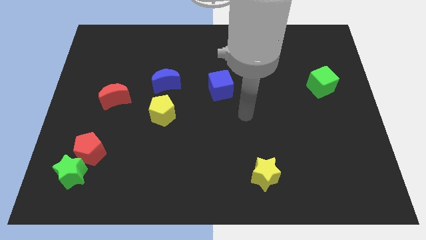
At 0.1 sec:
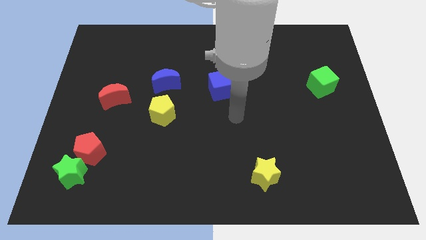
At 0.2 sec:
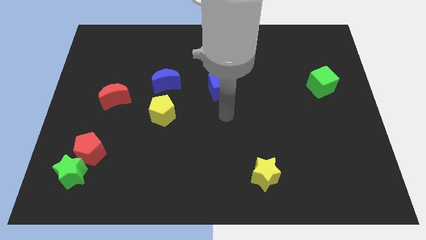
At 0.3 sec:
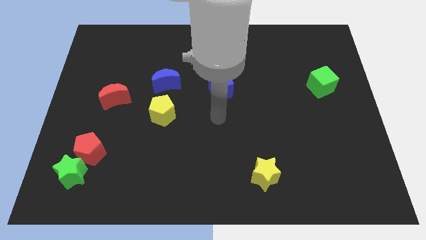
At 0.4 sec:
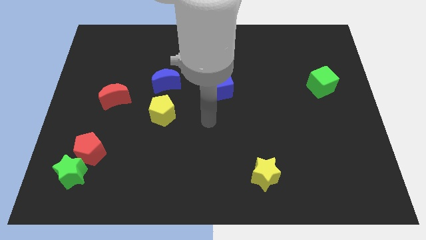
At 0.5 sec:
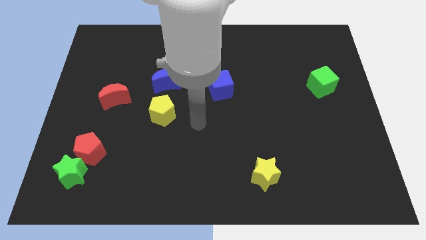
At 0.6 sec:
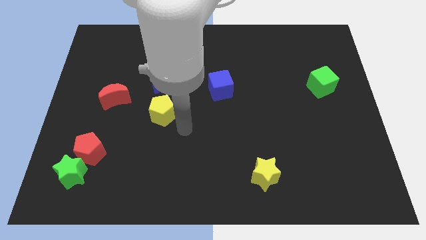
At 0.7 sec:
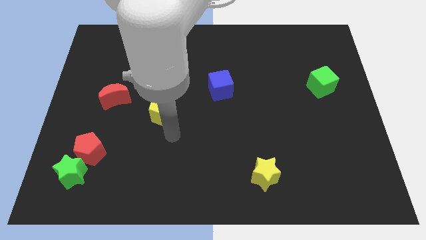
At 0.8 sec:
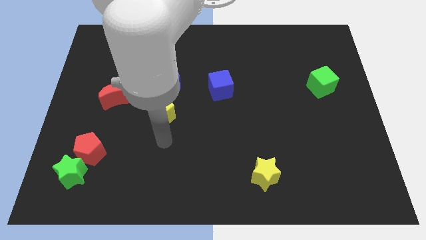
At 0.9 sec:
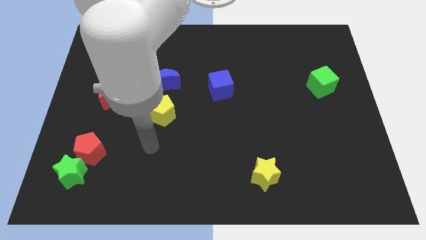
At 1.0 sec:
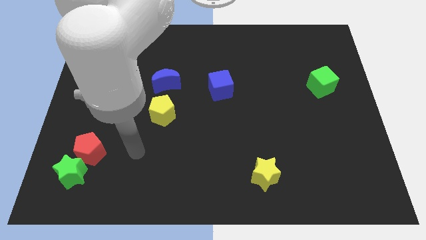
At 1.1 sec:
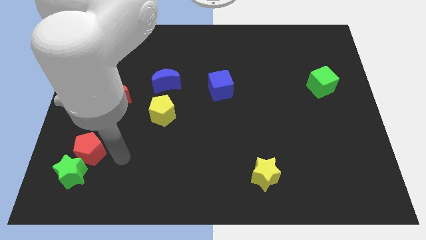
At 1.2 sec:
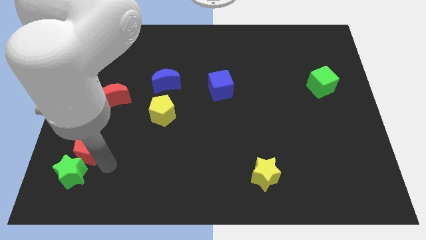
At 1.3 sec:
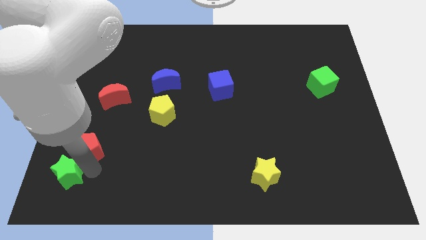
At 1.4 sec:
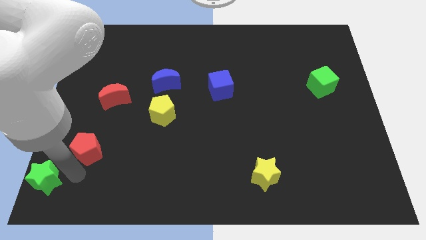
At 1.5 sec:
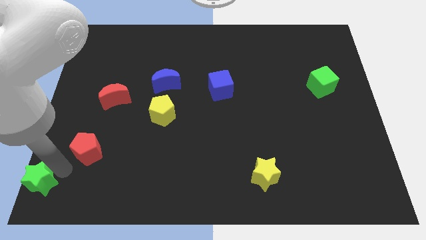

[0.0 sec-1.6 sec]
separate the red pentagon from the green star

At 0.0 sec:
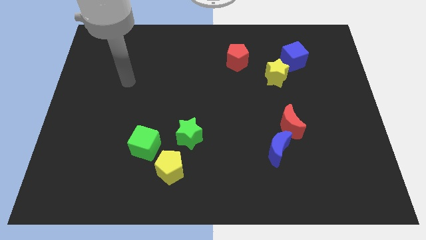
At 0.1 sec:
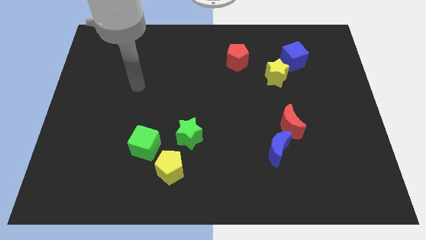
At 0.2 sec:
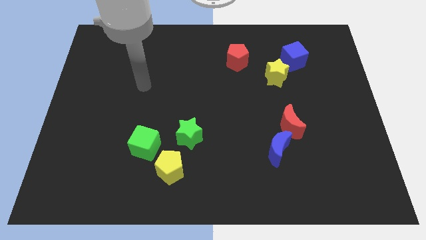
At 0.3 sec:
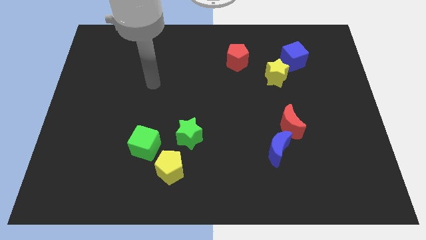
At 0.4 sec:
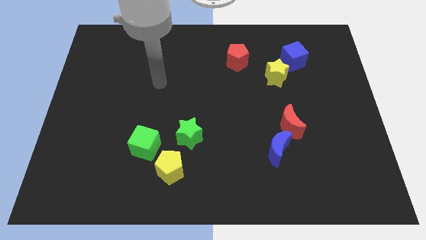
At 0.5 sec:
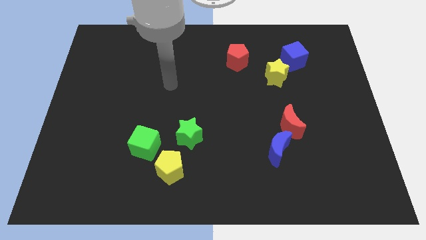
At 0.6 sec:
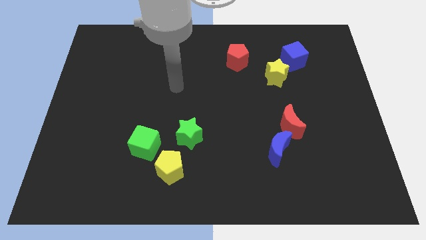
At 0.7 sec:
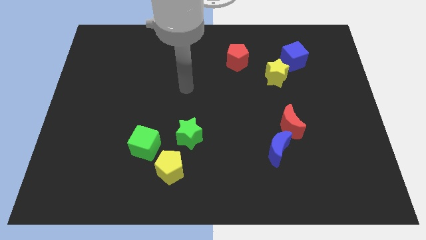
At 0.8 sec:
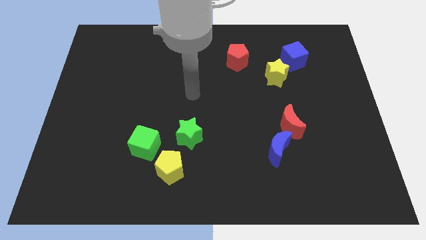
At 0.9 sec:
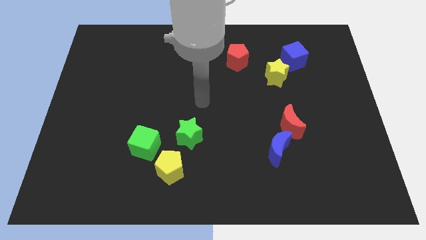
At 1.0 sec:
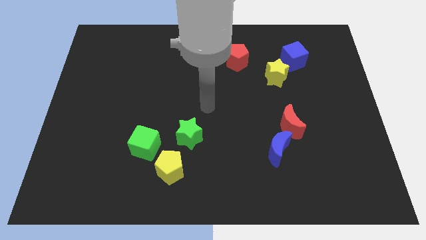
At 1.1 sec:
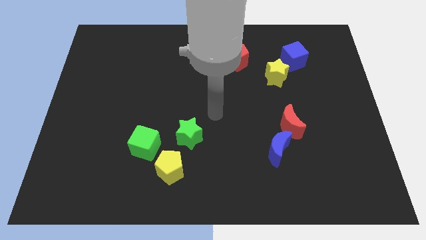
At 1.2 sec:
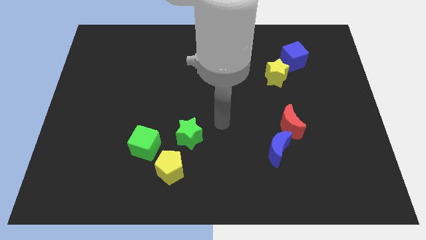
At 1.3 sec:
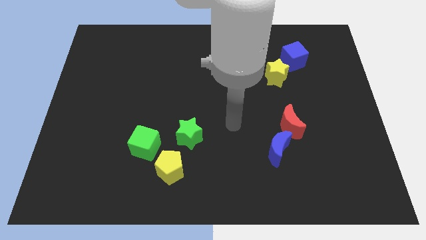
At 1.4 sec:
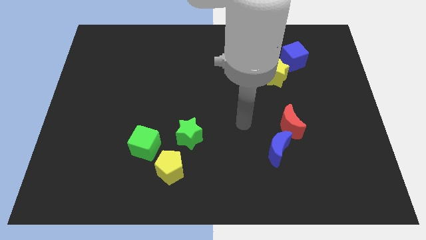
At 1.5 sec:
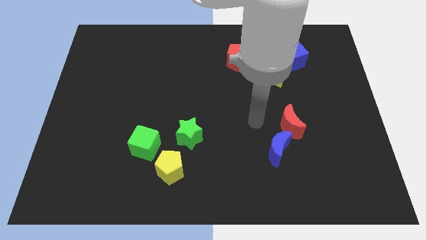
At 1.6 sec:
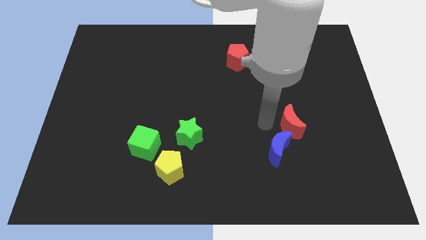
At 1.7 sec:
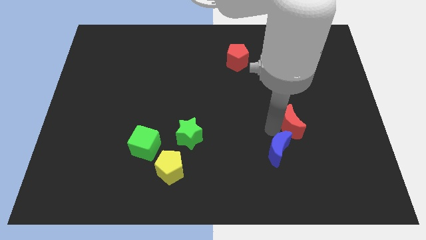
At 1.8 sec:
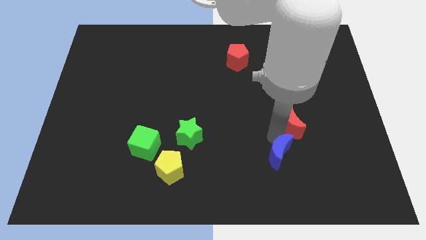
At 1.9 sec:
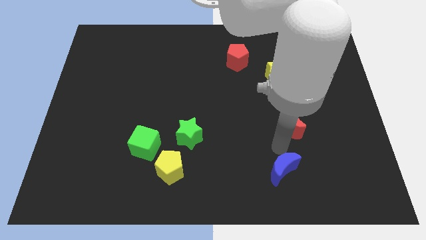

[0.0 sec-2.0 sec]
move the red moon away from the blue moon

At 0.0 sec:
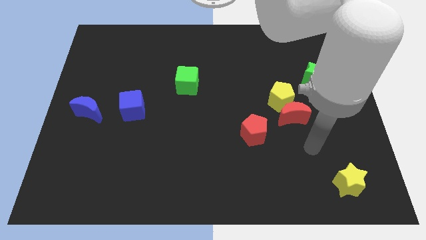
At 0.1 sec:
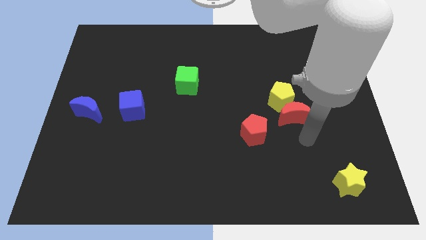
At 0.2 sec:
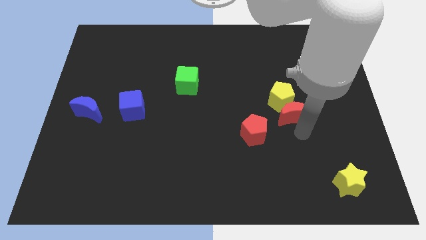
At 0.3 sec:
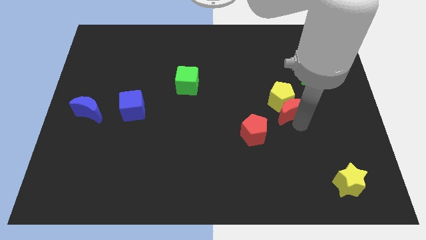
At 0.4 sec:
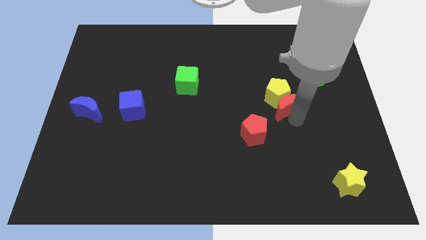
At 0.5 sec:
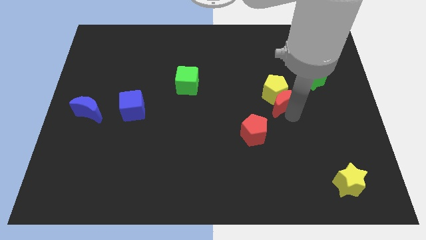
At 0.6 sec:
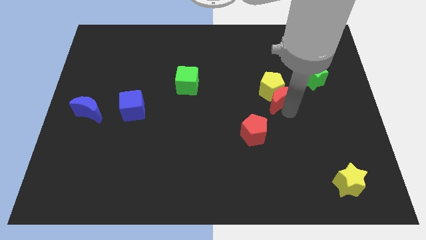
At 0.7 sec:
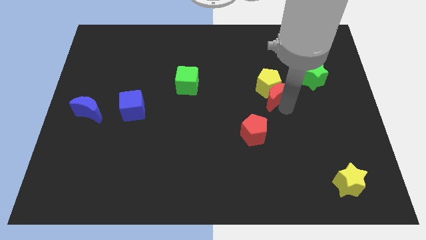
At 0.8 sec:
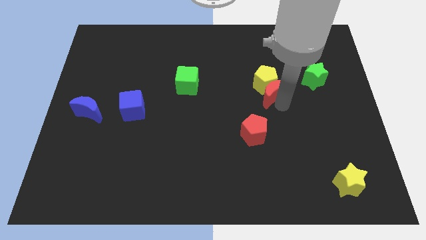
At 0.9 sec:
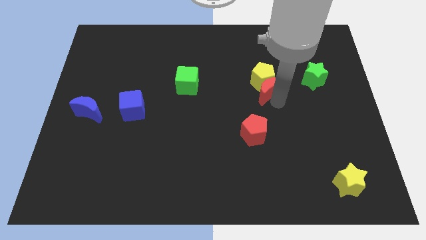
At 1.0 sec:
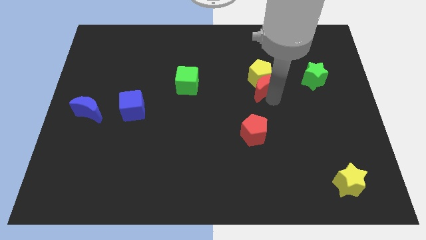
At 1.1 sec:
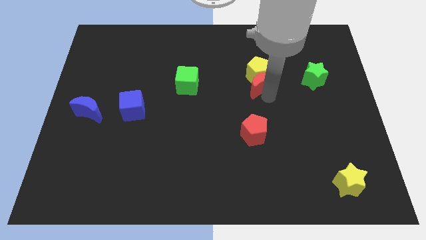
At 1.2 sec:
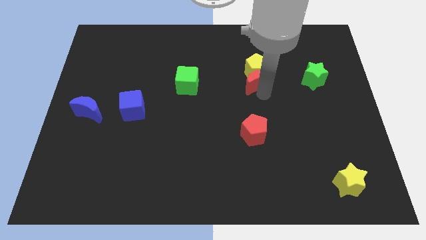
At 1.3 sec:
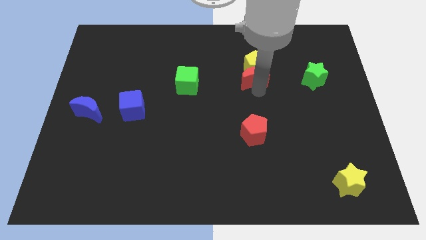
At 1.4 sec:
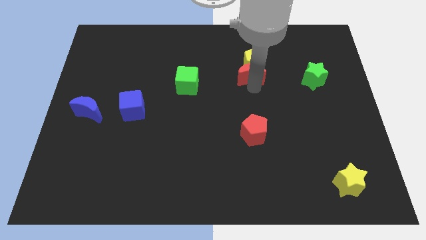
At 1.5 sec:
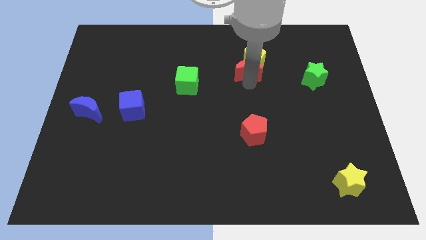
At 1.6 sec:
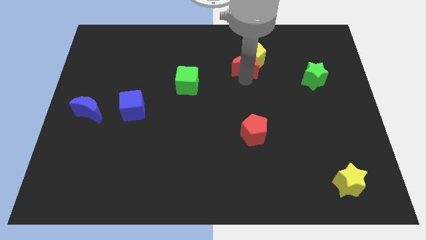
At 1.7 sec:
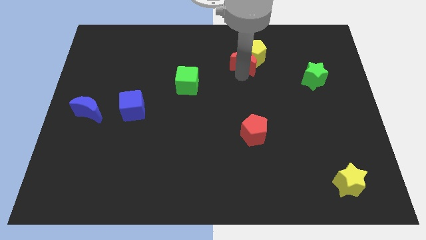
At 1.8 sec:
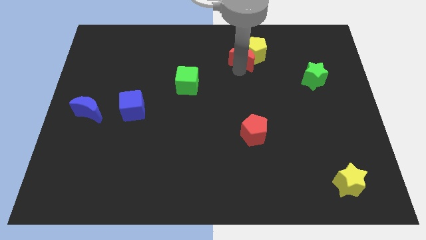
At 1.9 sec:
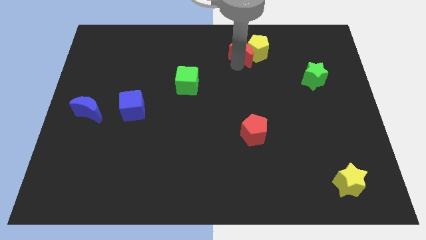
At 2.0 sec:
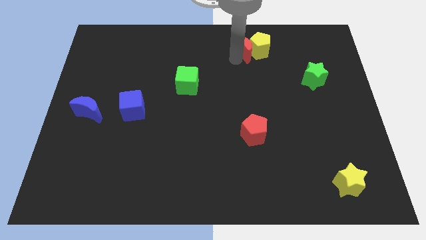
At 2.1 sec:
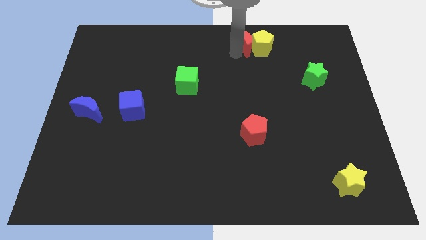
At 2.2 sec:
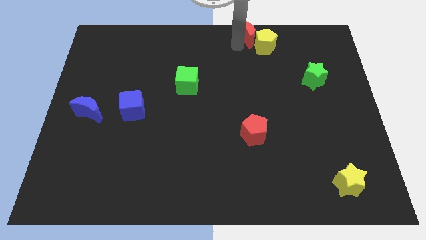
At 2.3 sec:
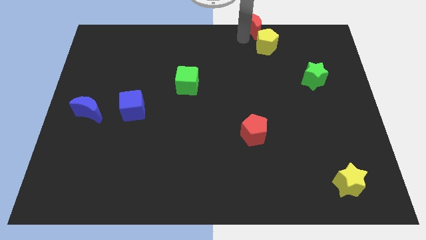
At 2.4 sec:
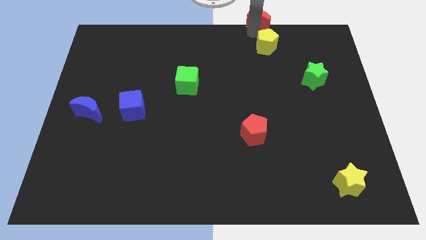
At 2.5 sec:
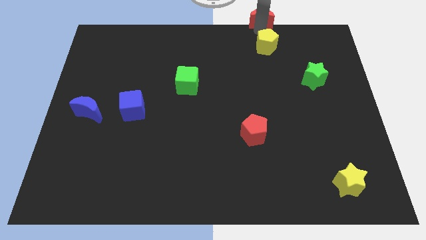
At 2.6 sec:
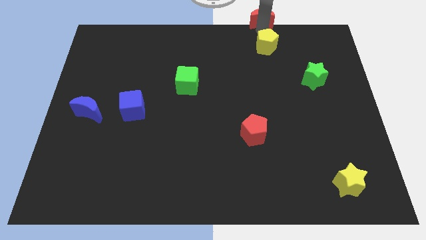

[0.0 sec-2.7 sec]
move the yellow pentagon away from the red moon

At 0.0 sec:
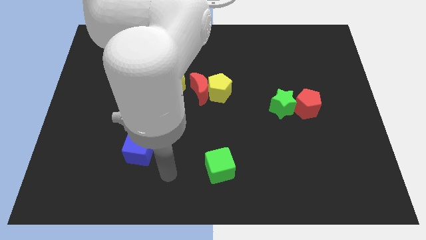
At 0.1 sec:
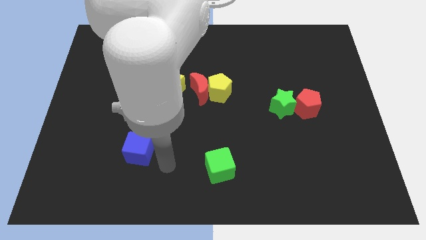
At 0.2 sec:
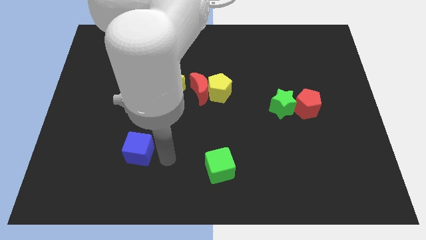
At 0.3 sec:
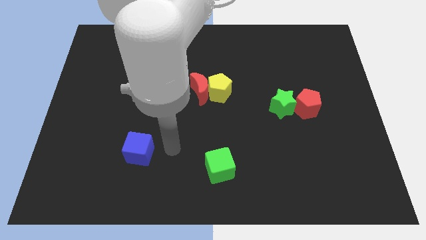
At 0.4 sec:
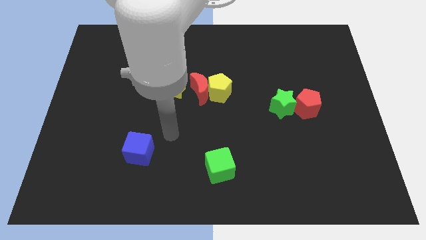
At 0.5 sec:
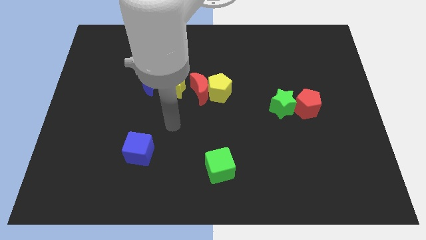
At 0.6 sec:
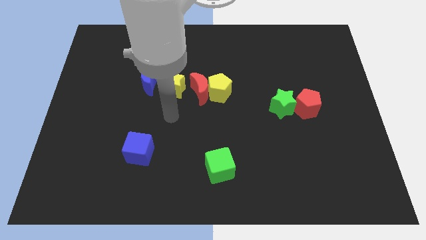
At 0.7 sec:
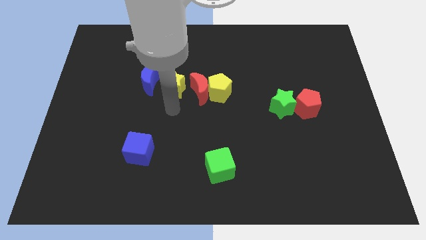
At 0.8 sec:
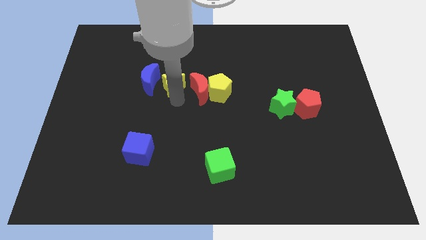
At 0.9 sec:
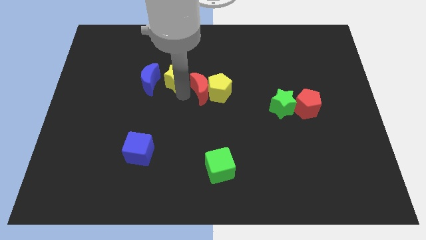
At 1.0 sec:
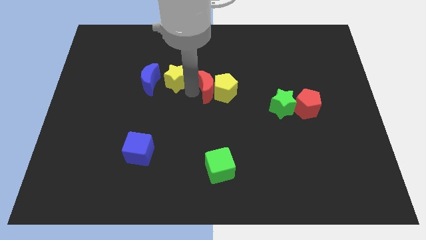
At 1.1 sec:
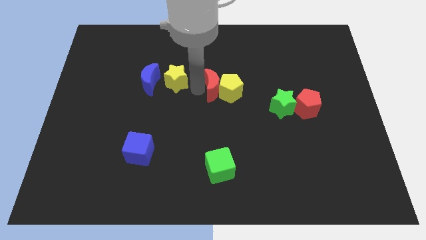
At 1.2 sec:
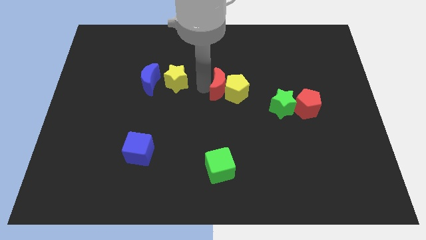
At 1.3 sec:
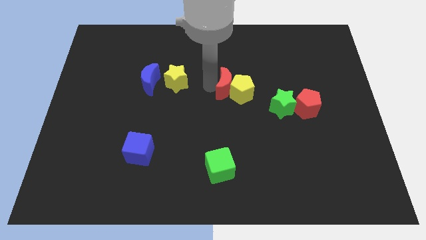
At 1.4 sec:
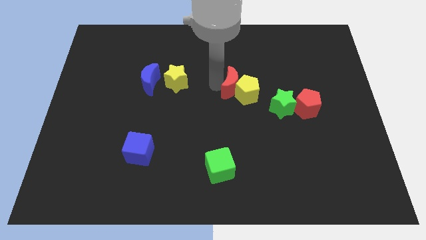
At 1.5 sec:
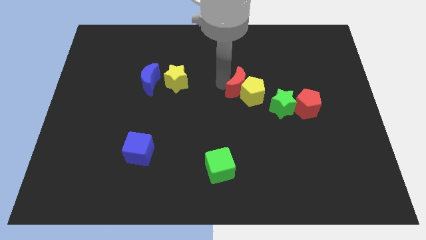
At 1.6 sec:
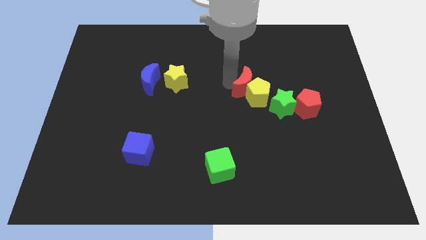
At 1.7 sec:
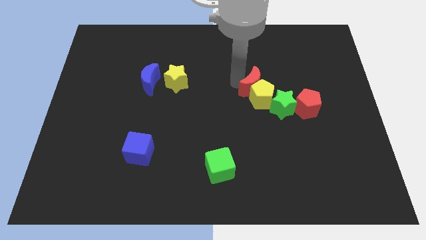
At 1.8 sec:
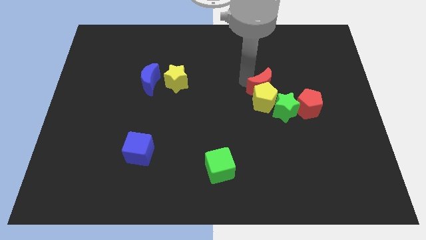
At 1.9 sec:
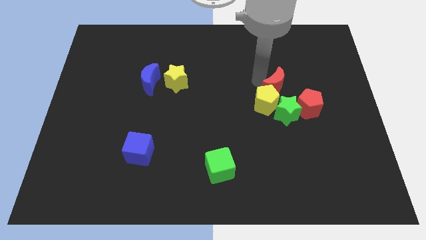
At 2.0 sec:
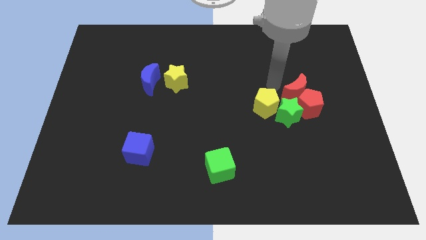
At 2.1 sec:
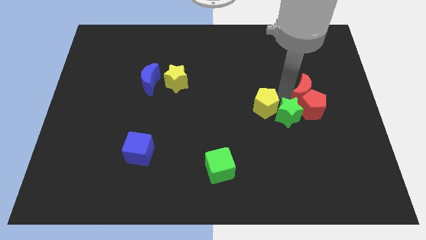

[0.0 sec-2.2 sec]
separate the yellow pentagon from the red moon

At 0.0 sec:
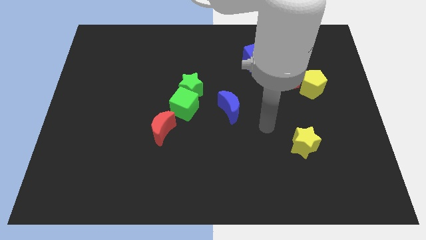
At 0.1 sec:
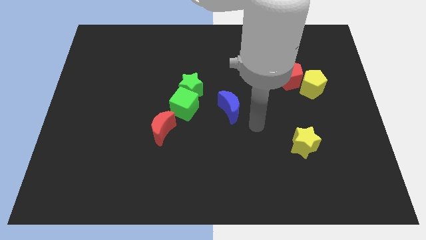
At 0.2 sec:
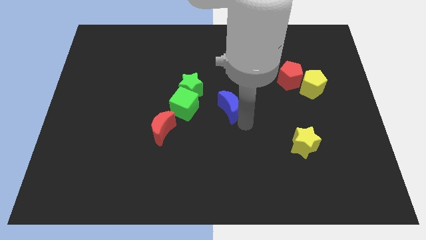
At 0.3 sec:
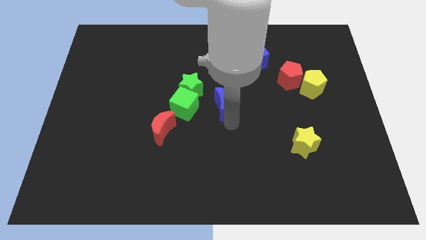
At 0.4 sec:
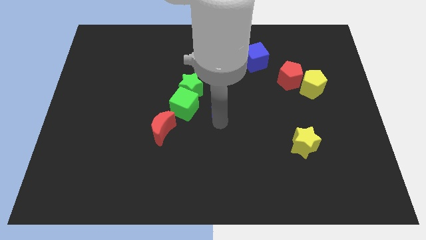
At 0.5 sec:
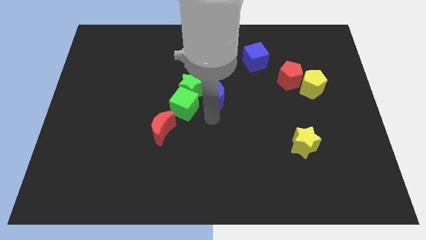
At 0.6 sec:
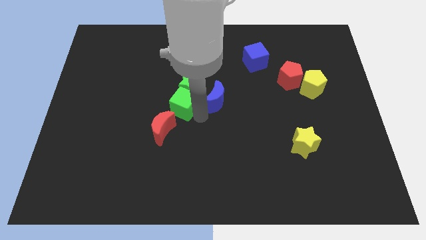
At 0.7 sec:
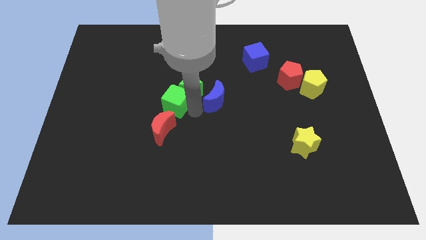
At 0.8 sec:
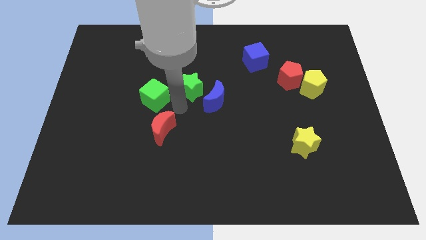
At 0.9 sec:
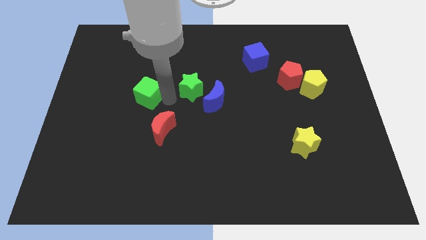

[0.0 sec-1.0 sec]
pull the green star apart from the green cube
